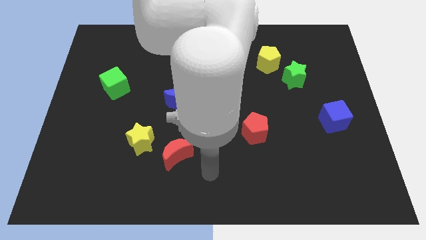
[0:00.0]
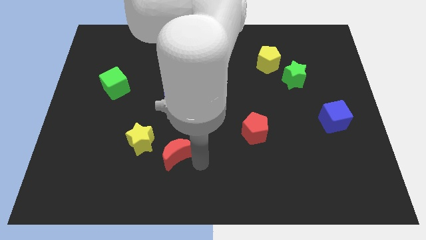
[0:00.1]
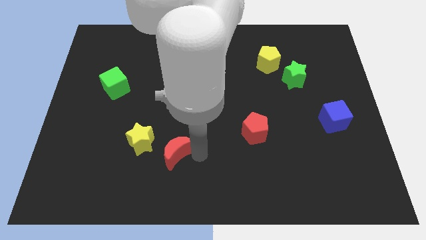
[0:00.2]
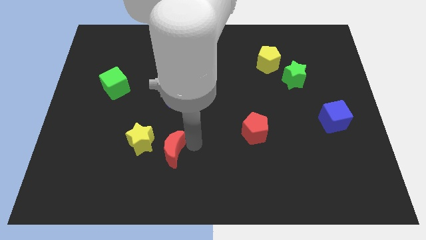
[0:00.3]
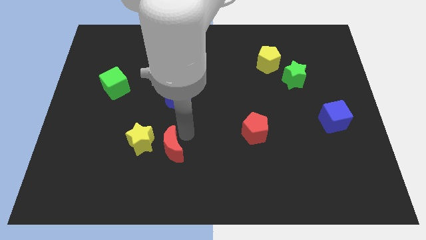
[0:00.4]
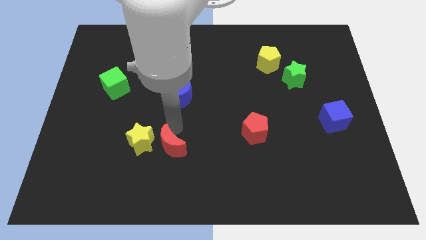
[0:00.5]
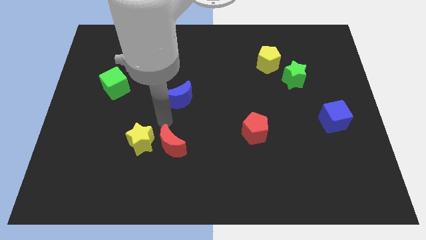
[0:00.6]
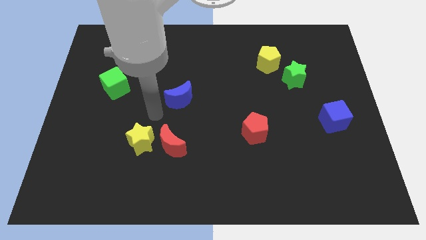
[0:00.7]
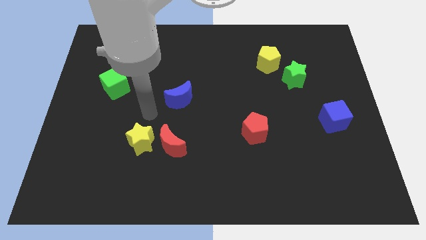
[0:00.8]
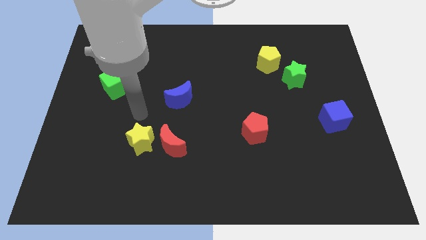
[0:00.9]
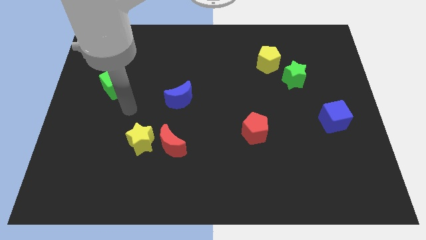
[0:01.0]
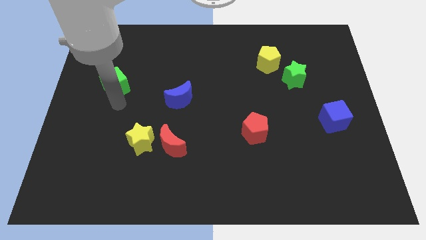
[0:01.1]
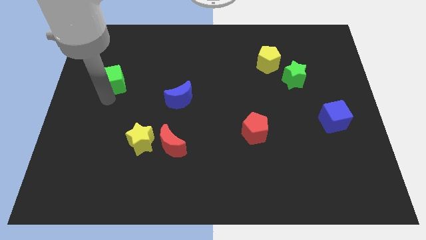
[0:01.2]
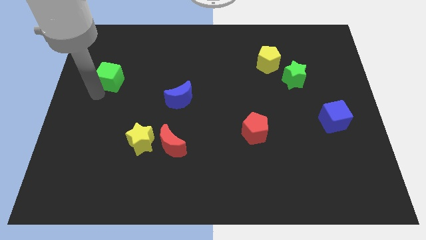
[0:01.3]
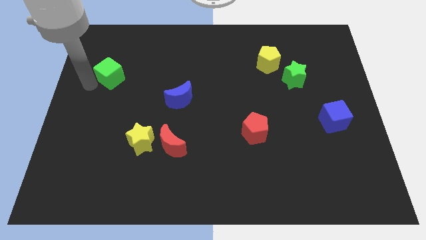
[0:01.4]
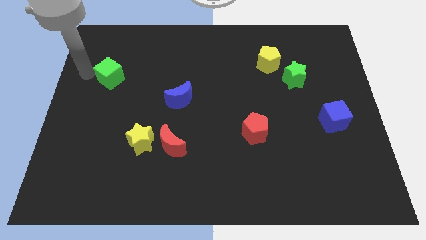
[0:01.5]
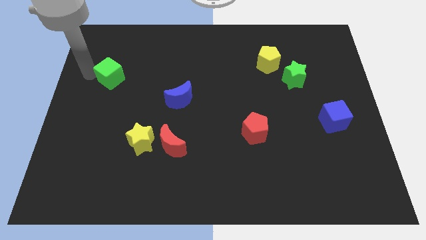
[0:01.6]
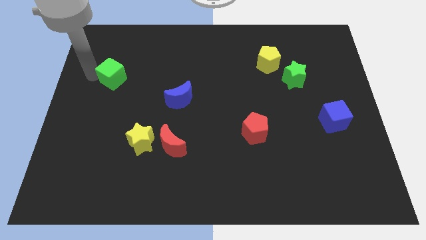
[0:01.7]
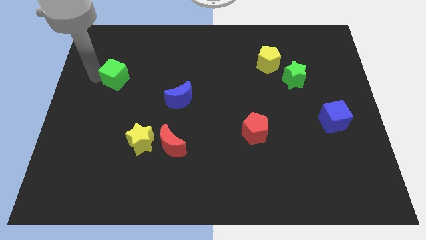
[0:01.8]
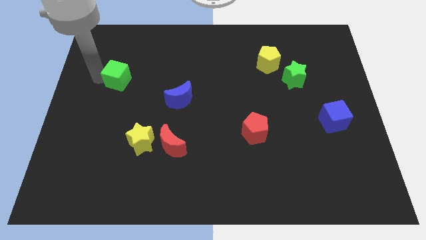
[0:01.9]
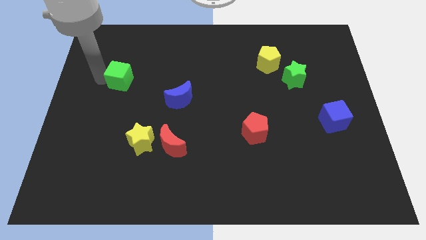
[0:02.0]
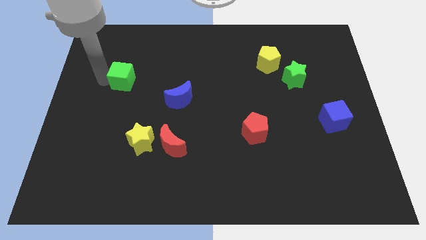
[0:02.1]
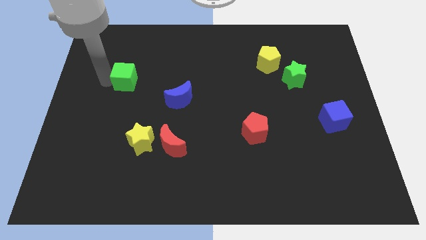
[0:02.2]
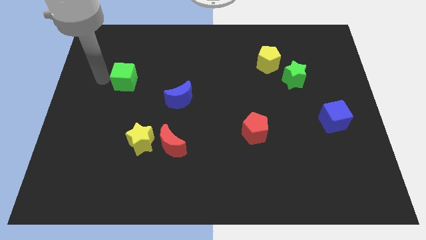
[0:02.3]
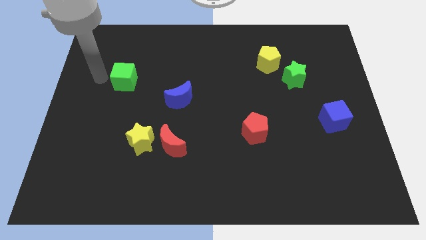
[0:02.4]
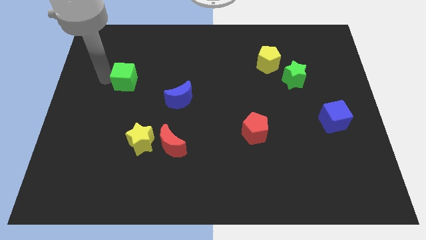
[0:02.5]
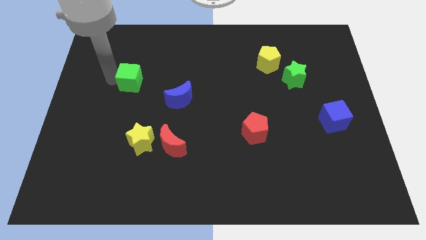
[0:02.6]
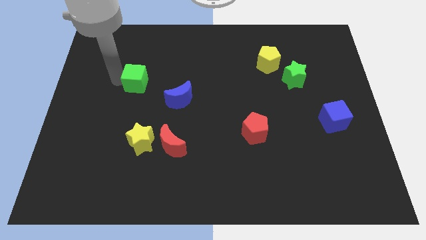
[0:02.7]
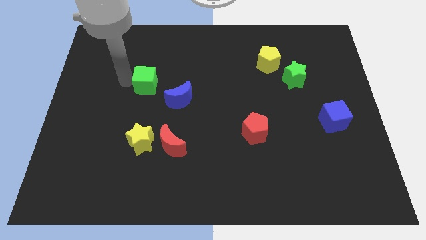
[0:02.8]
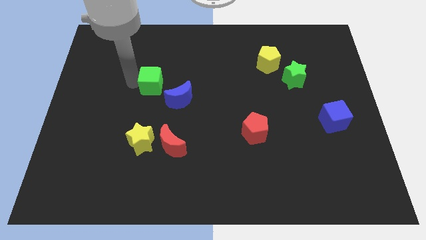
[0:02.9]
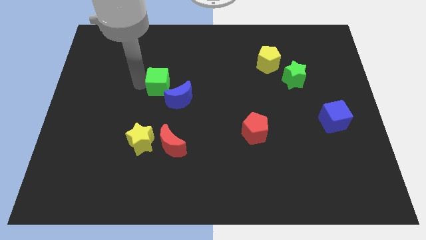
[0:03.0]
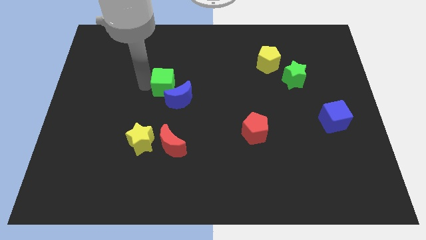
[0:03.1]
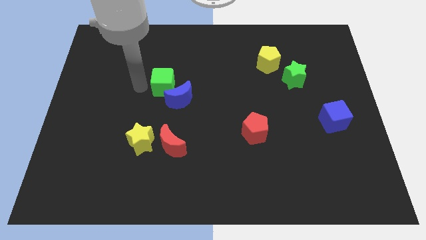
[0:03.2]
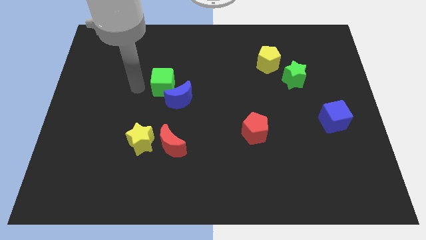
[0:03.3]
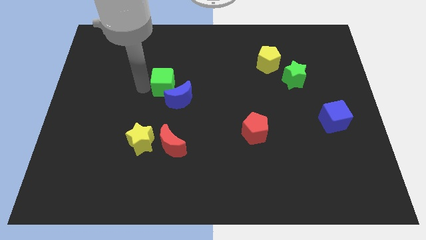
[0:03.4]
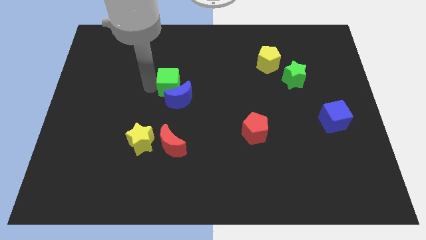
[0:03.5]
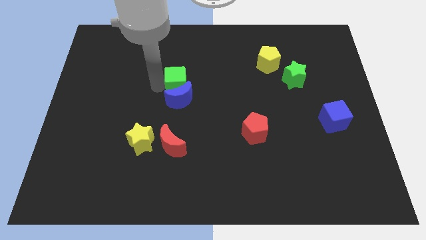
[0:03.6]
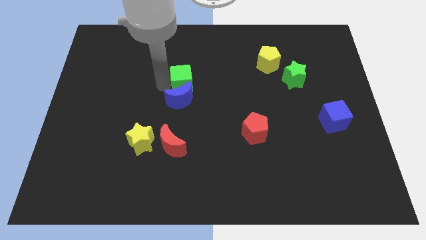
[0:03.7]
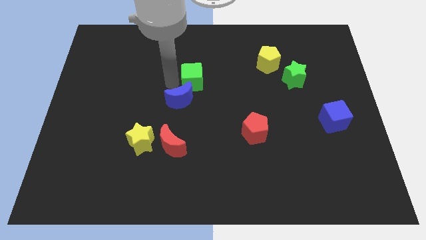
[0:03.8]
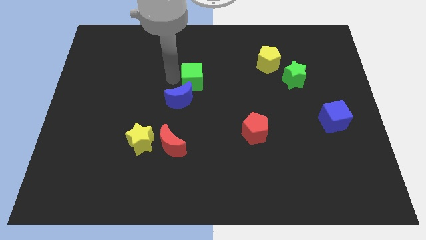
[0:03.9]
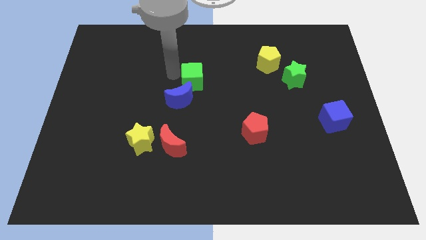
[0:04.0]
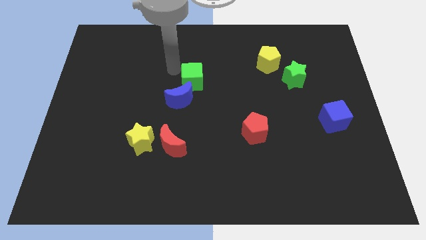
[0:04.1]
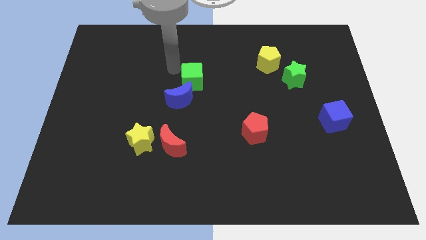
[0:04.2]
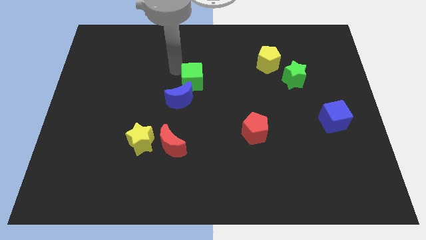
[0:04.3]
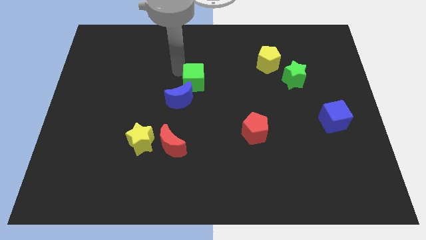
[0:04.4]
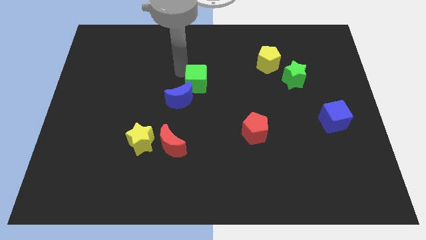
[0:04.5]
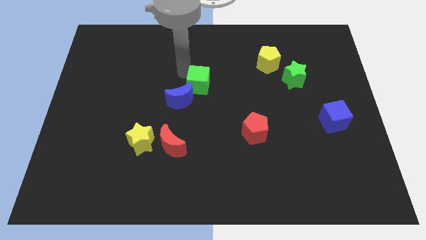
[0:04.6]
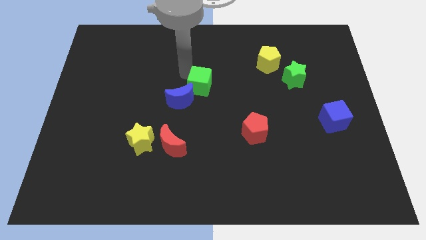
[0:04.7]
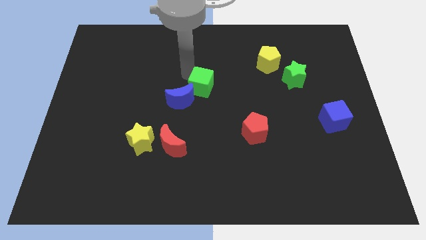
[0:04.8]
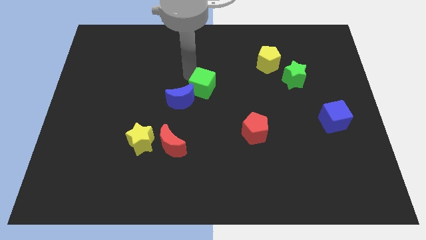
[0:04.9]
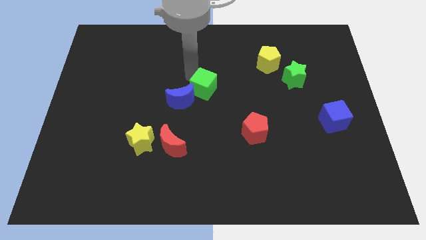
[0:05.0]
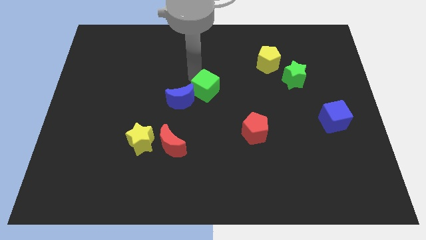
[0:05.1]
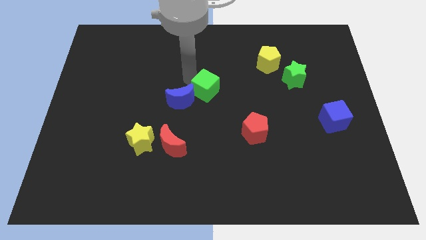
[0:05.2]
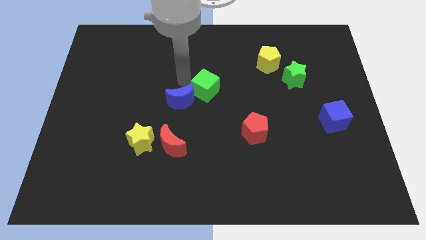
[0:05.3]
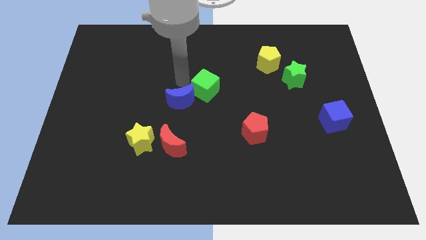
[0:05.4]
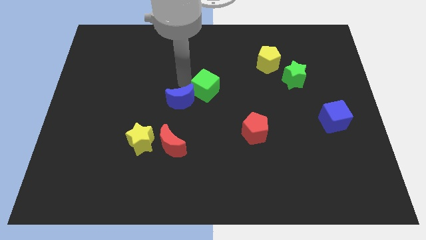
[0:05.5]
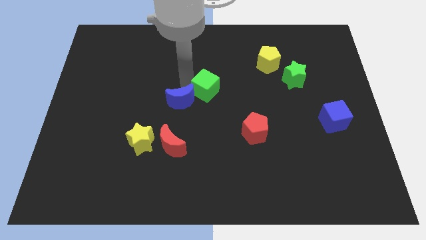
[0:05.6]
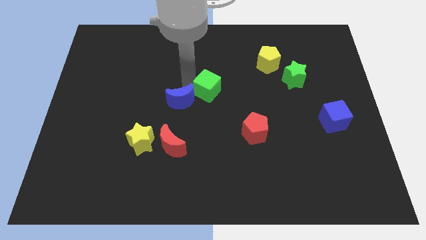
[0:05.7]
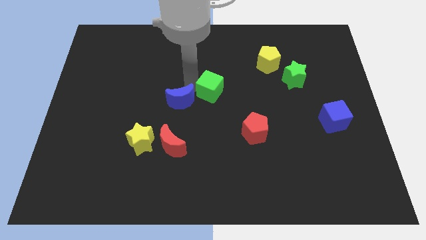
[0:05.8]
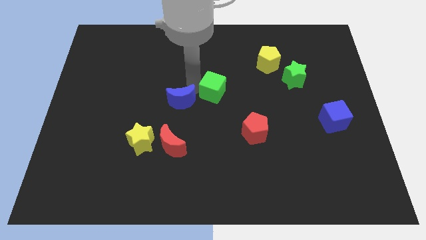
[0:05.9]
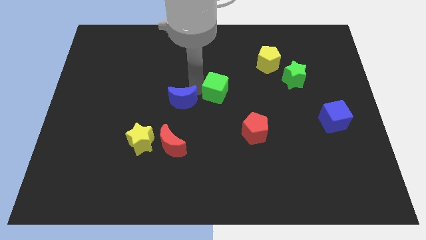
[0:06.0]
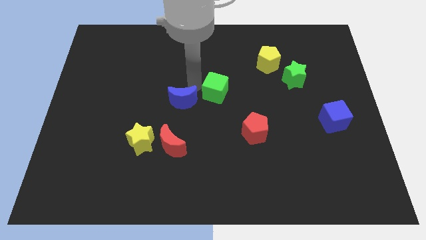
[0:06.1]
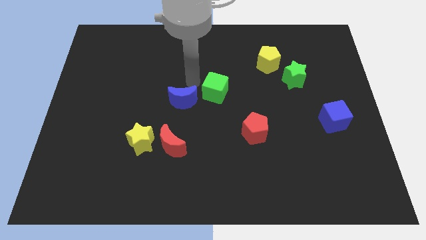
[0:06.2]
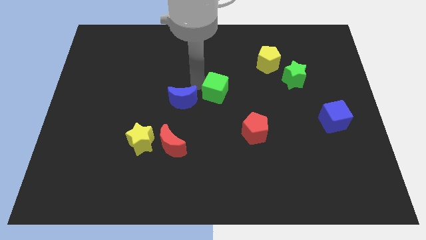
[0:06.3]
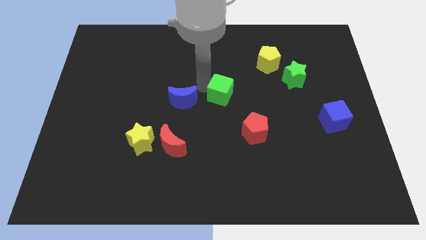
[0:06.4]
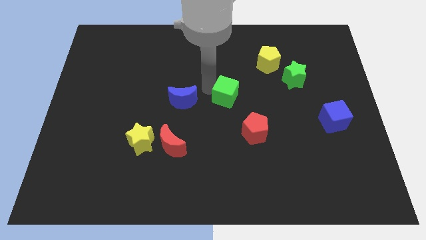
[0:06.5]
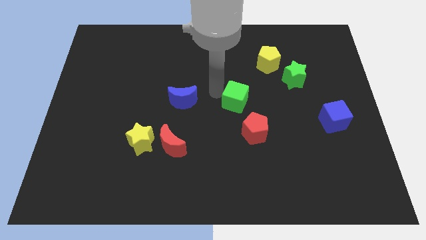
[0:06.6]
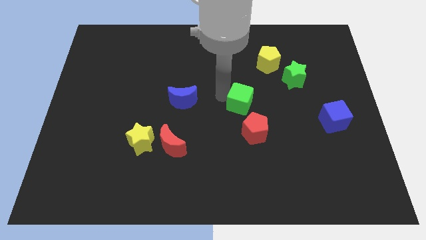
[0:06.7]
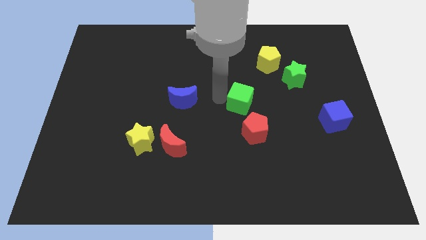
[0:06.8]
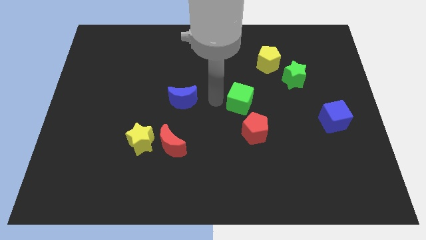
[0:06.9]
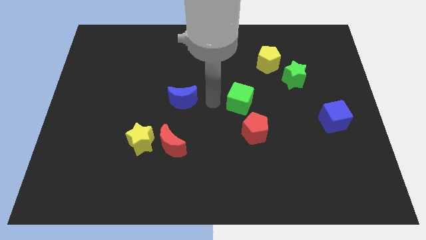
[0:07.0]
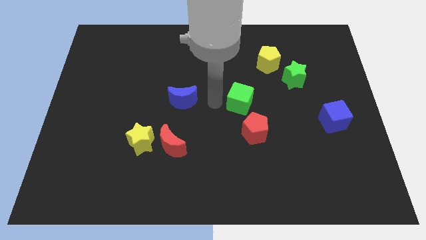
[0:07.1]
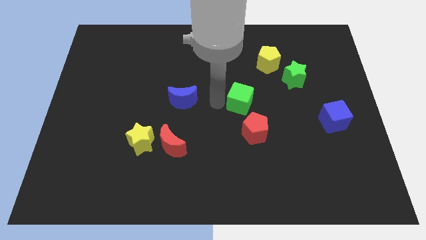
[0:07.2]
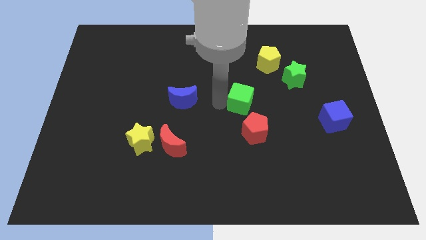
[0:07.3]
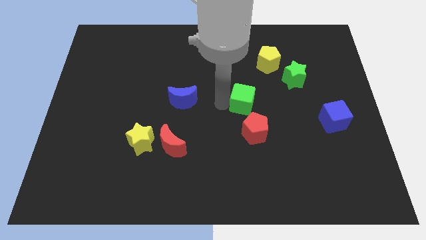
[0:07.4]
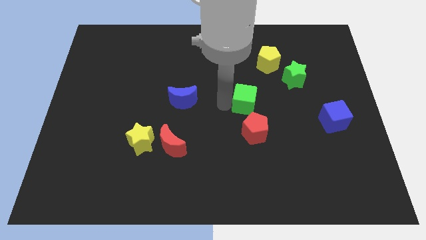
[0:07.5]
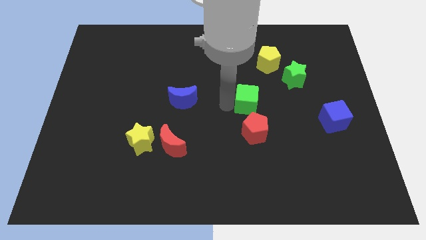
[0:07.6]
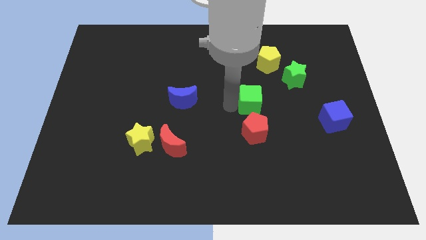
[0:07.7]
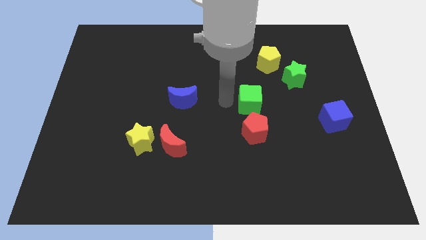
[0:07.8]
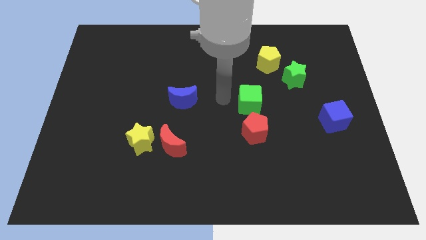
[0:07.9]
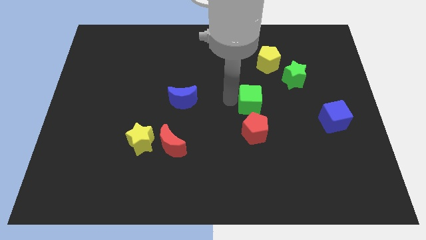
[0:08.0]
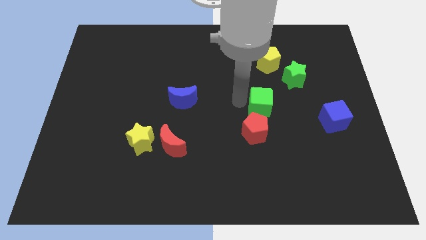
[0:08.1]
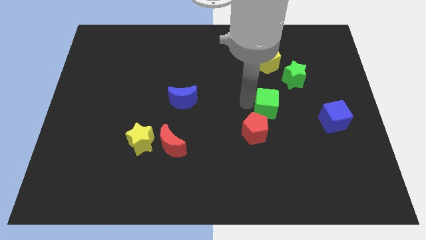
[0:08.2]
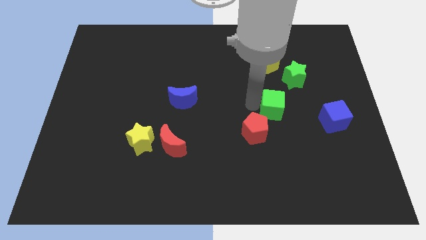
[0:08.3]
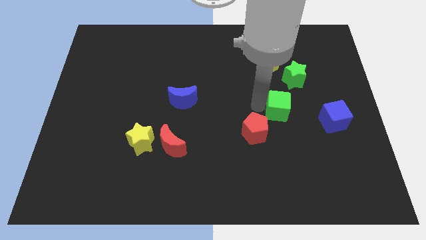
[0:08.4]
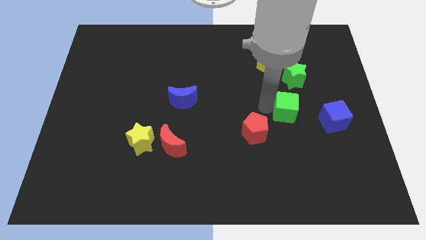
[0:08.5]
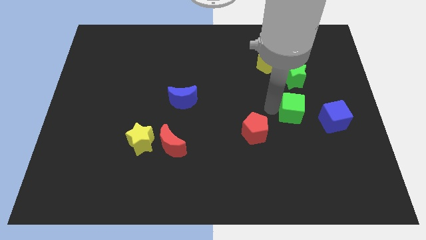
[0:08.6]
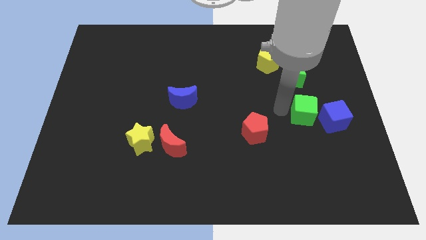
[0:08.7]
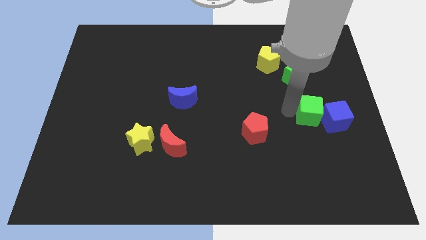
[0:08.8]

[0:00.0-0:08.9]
move the green cube close to the blue cube
